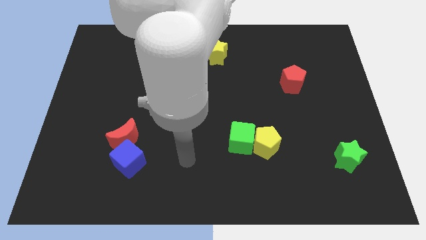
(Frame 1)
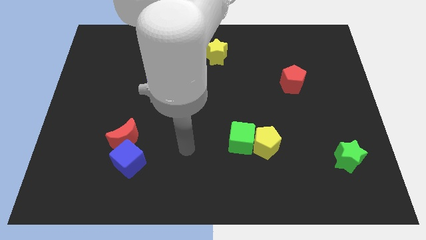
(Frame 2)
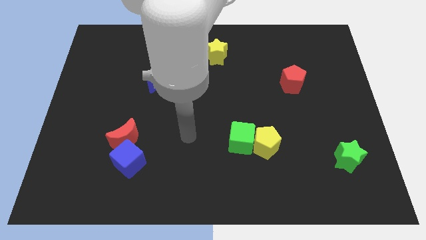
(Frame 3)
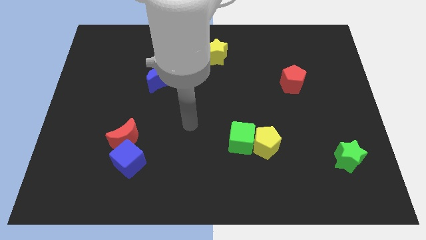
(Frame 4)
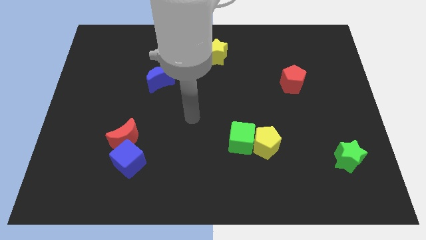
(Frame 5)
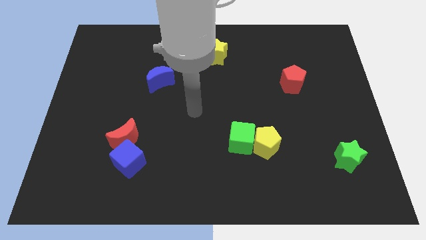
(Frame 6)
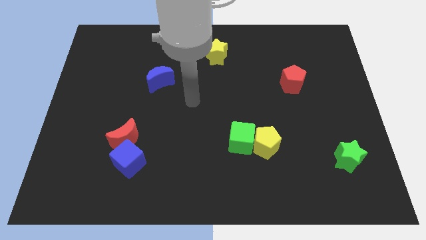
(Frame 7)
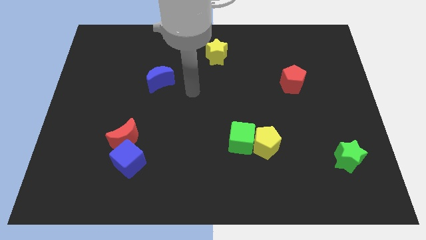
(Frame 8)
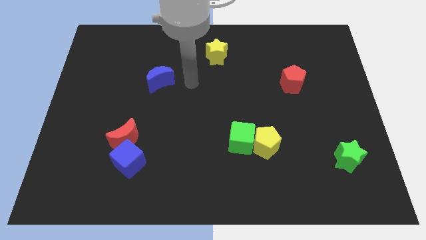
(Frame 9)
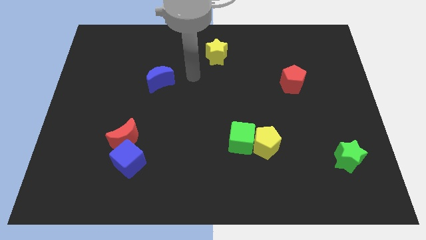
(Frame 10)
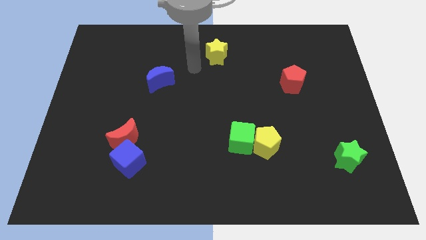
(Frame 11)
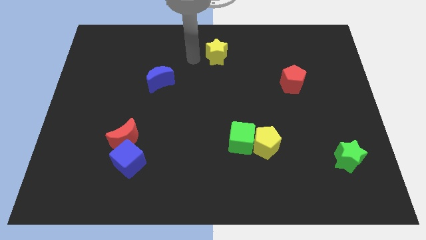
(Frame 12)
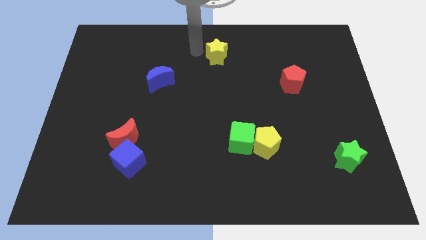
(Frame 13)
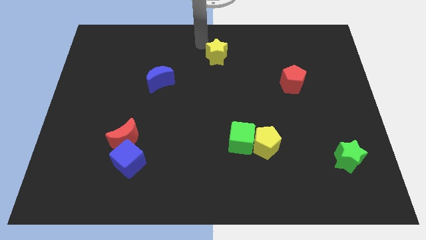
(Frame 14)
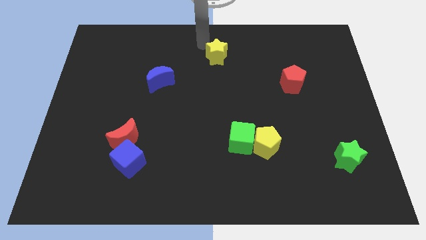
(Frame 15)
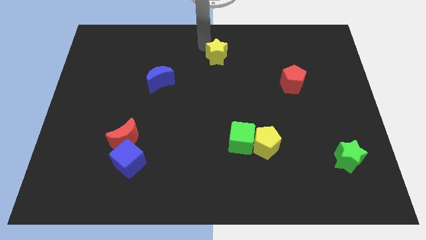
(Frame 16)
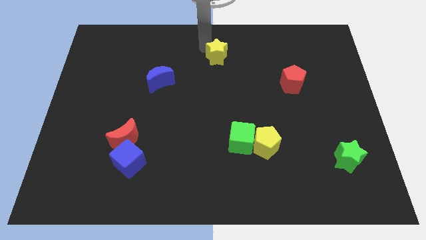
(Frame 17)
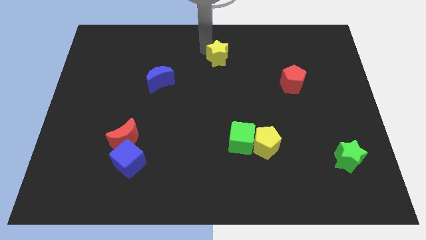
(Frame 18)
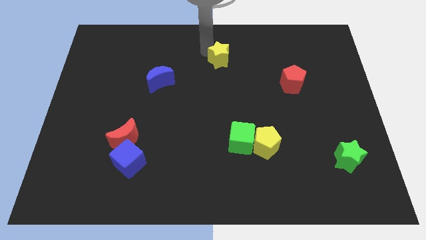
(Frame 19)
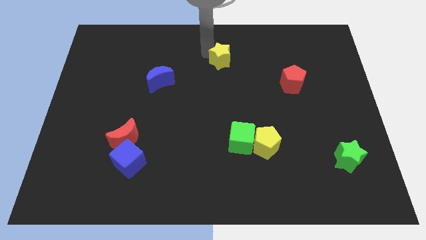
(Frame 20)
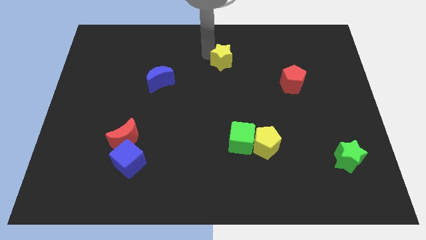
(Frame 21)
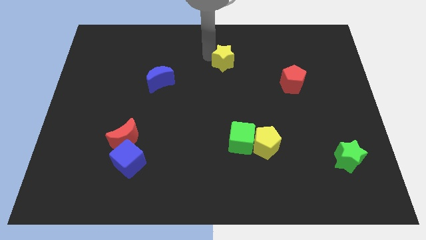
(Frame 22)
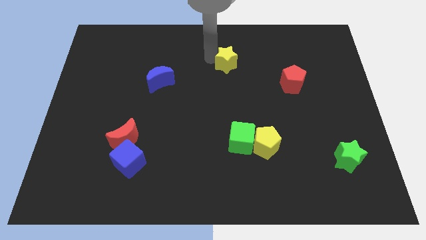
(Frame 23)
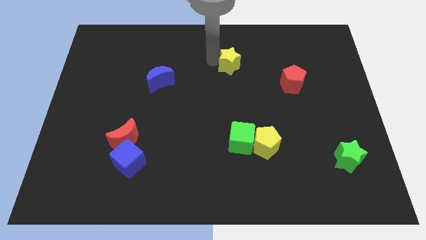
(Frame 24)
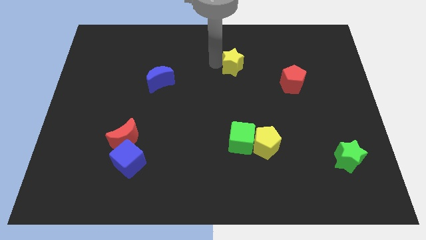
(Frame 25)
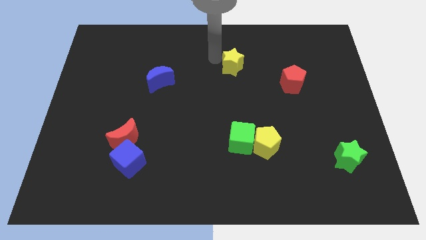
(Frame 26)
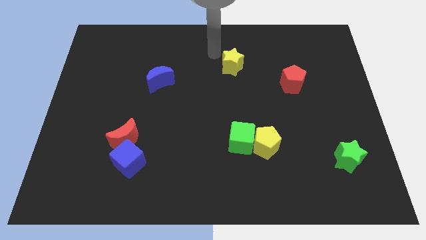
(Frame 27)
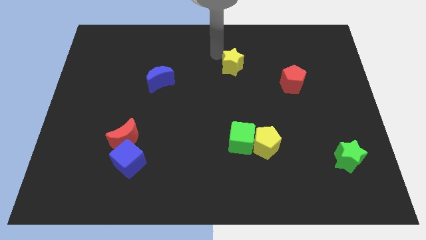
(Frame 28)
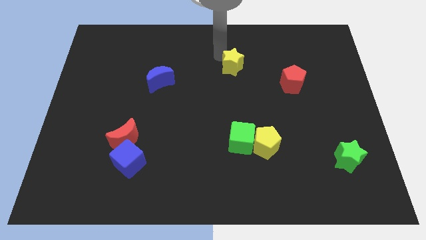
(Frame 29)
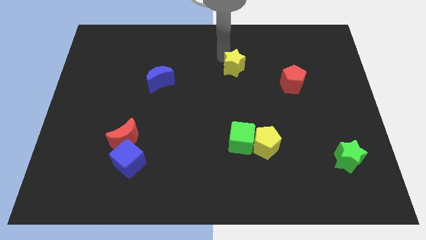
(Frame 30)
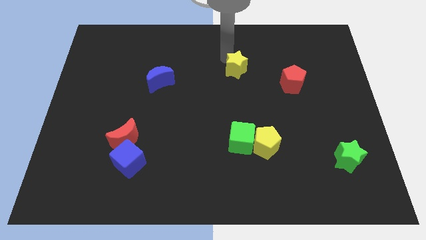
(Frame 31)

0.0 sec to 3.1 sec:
push the yellow star downwards and right diagonally a little

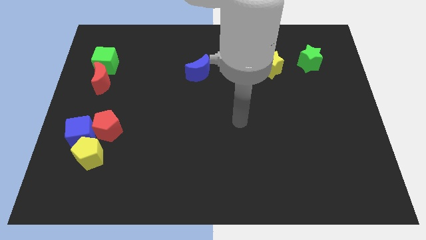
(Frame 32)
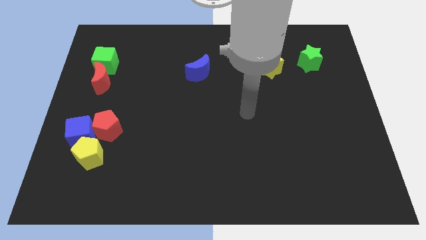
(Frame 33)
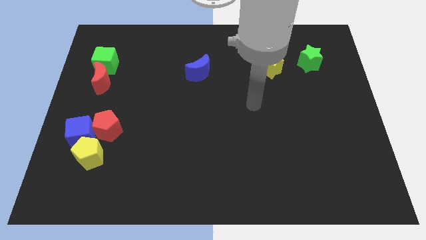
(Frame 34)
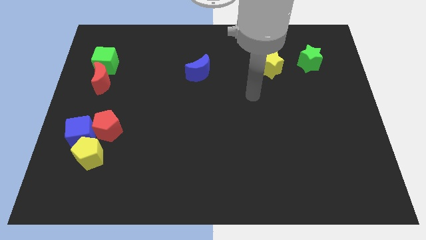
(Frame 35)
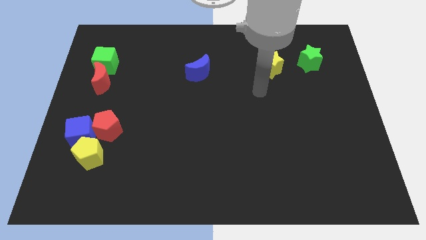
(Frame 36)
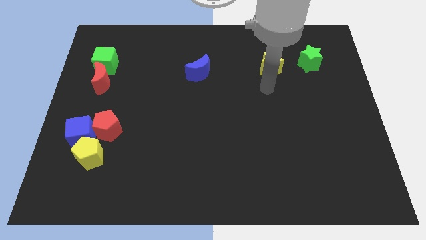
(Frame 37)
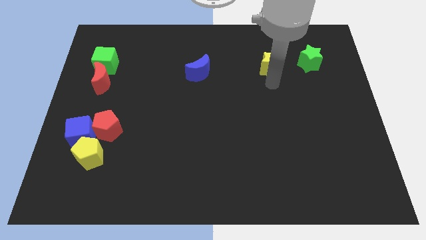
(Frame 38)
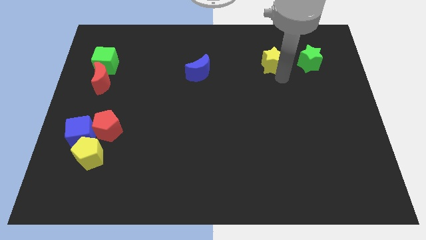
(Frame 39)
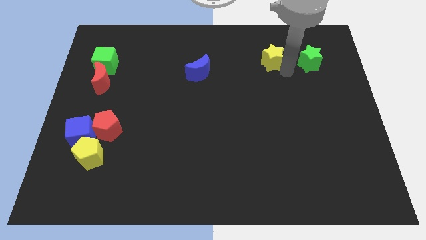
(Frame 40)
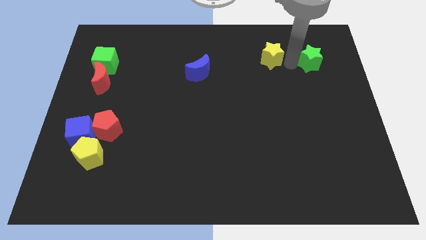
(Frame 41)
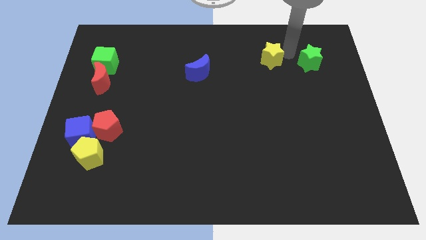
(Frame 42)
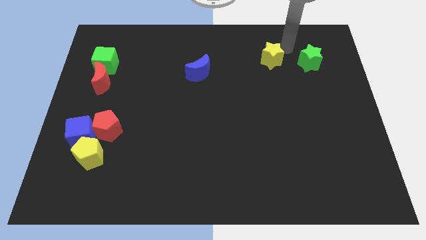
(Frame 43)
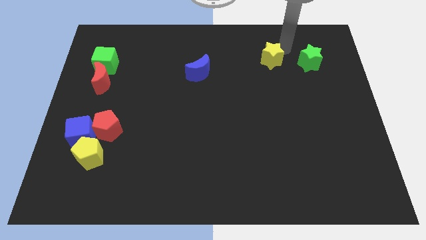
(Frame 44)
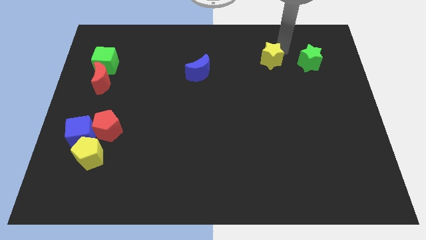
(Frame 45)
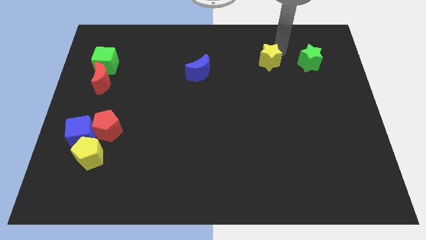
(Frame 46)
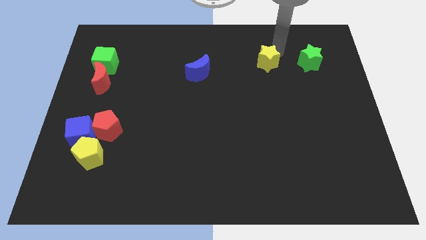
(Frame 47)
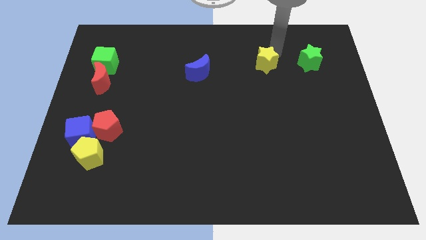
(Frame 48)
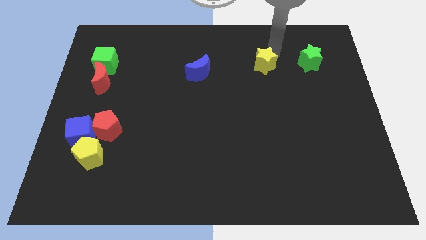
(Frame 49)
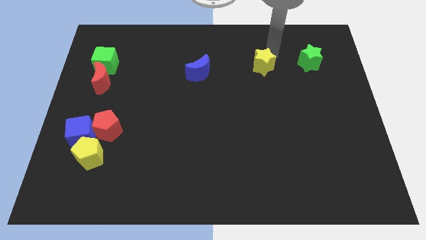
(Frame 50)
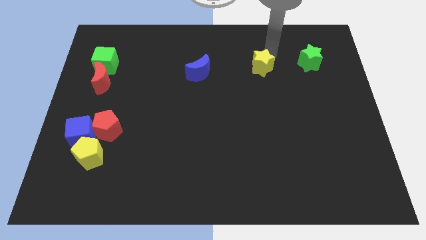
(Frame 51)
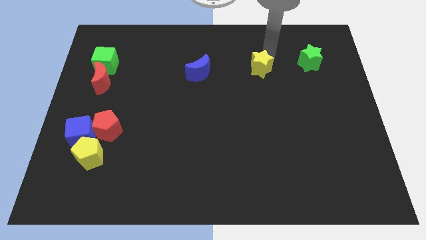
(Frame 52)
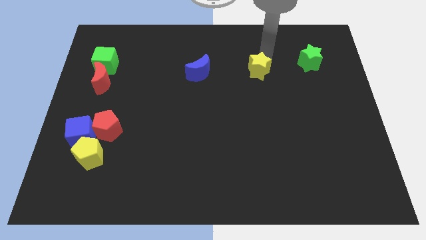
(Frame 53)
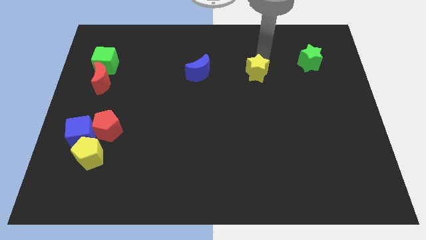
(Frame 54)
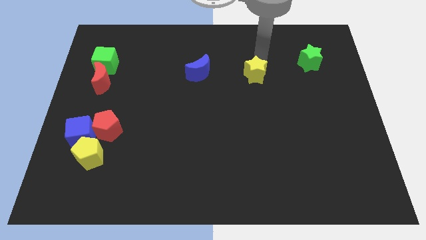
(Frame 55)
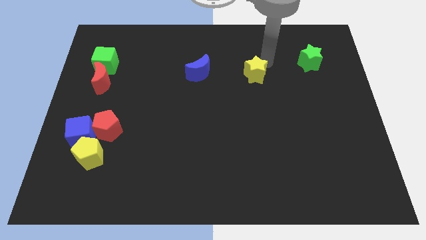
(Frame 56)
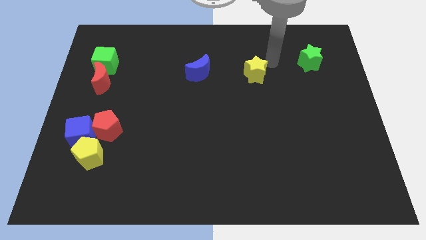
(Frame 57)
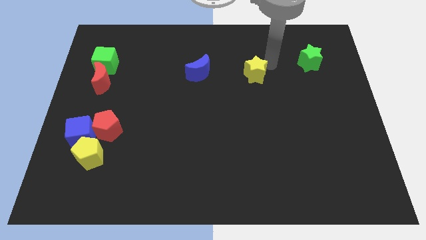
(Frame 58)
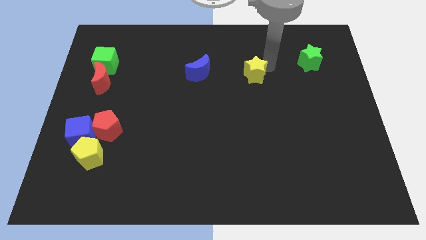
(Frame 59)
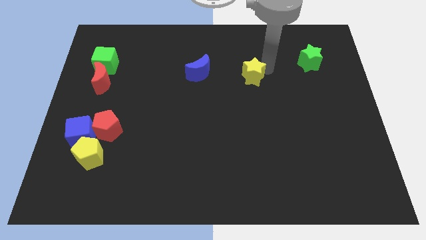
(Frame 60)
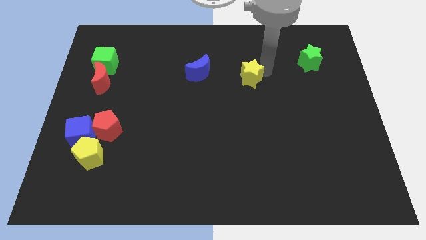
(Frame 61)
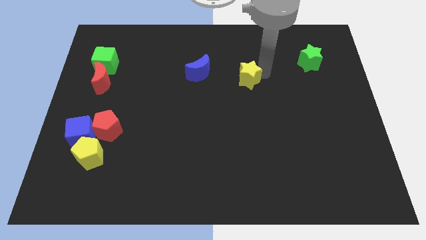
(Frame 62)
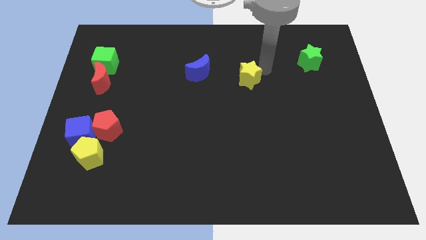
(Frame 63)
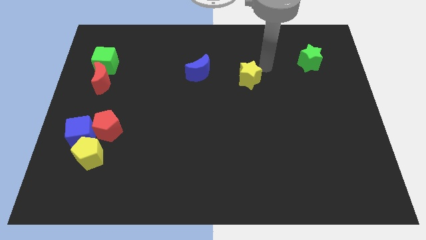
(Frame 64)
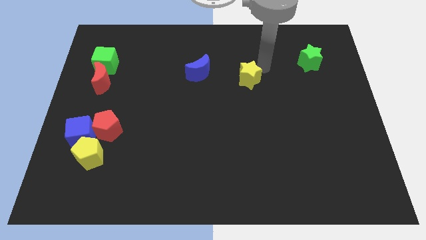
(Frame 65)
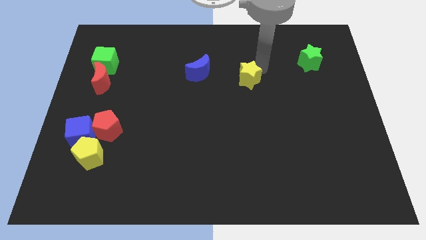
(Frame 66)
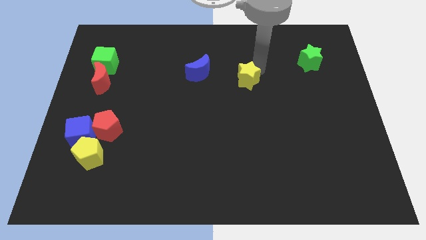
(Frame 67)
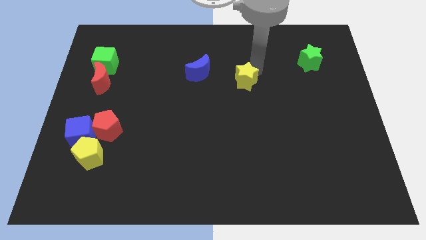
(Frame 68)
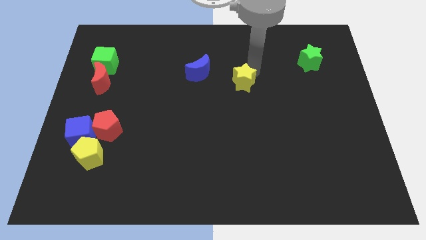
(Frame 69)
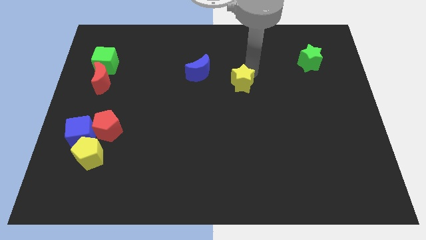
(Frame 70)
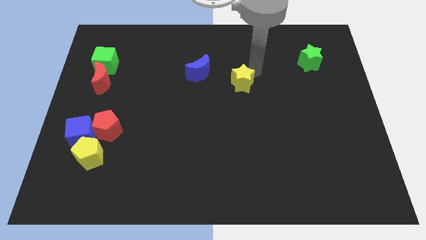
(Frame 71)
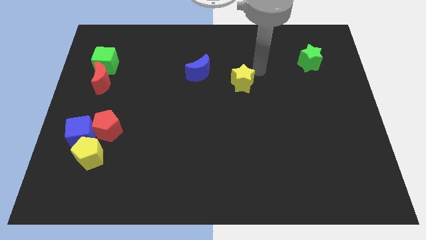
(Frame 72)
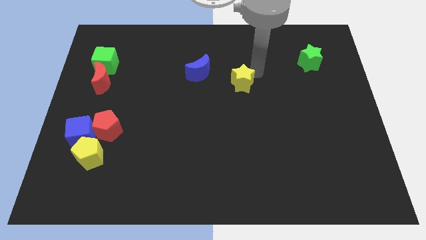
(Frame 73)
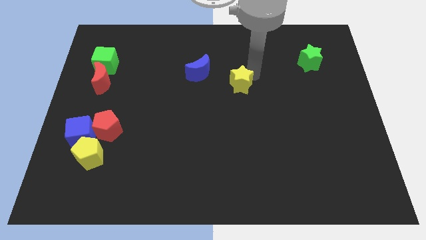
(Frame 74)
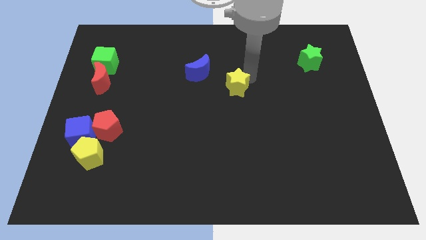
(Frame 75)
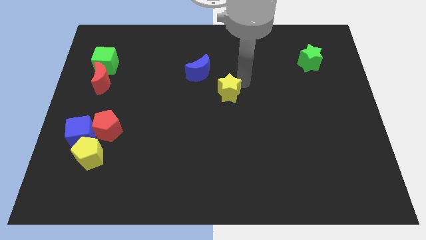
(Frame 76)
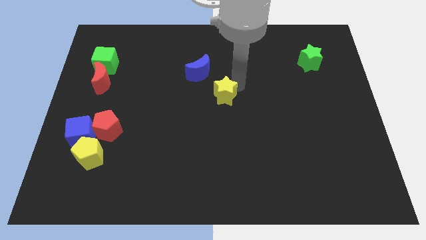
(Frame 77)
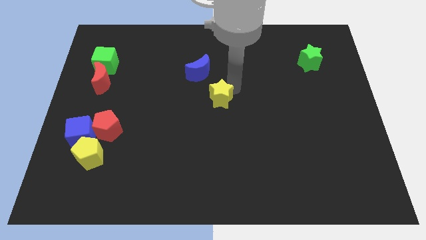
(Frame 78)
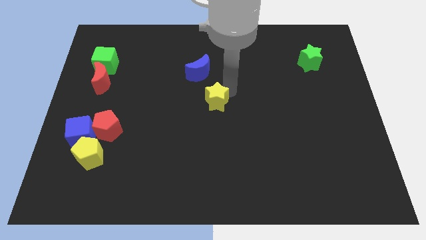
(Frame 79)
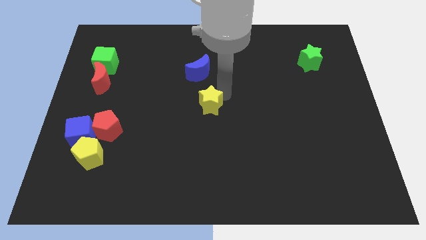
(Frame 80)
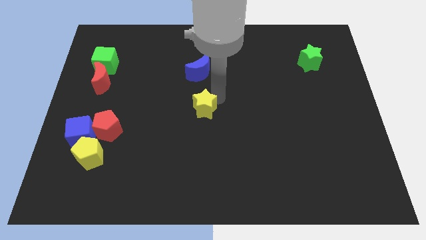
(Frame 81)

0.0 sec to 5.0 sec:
move the yellow star down and to the left diagonally
